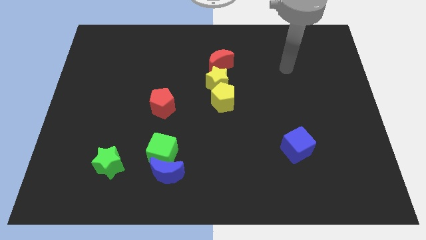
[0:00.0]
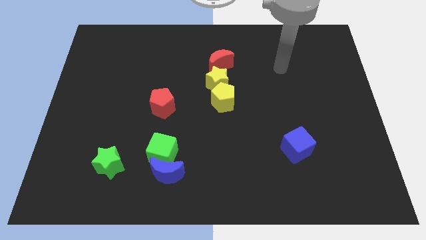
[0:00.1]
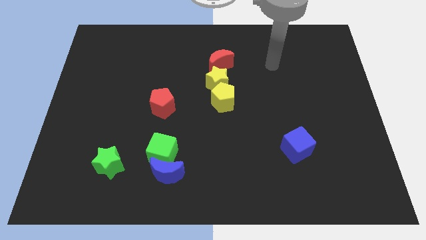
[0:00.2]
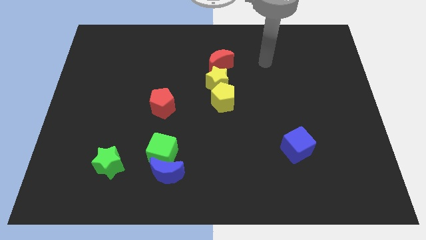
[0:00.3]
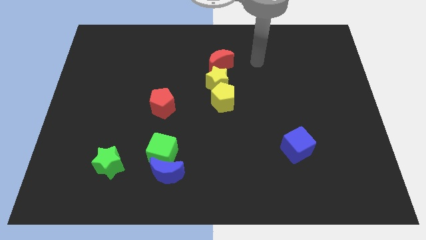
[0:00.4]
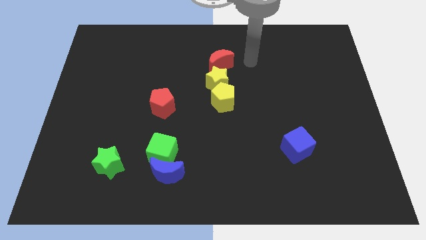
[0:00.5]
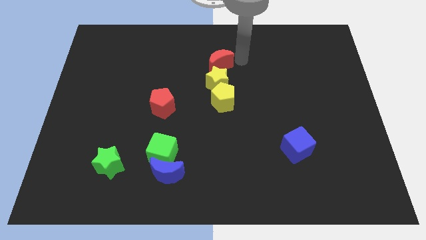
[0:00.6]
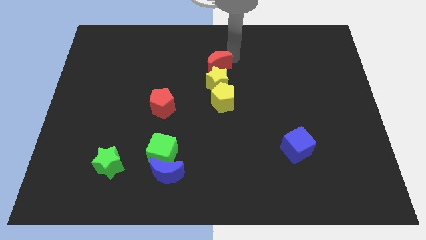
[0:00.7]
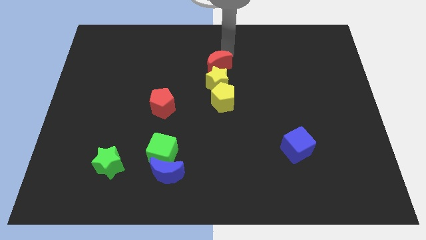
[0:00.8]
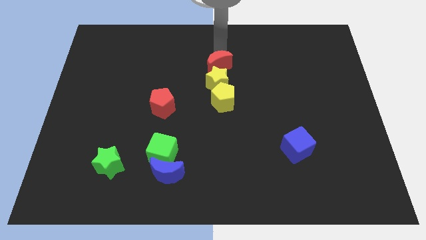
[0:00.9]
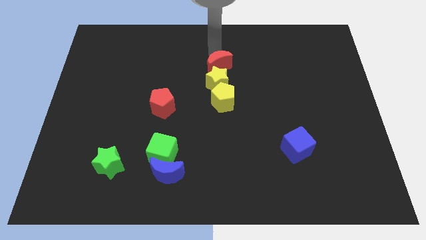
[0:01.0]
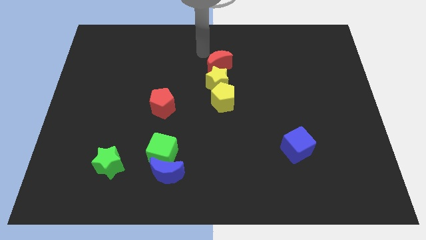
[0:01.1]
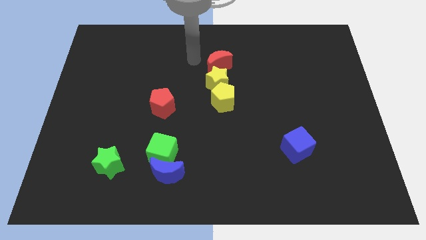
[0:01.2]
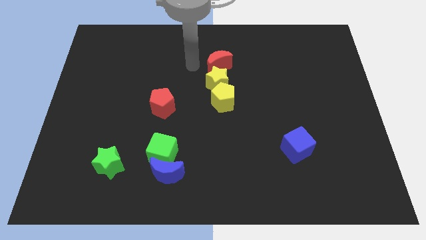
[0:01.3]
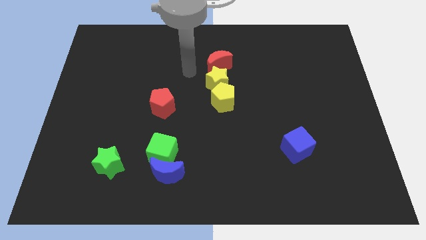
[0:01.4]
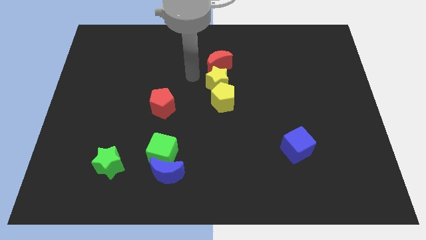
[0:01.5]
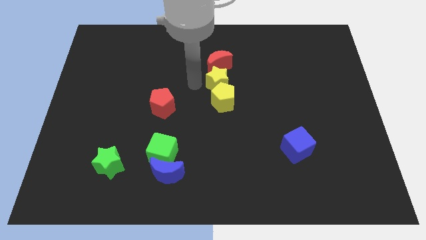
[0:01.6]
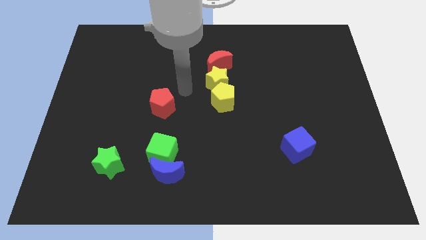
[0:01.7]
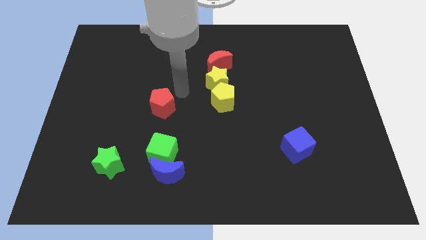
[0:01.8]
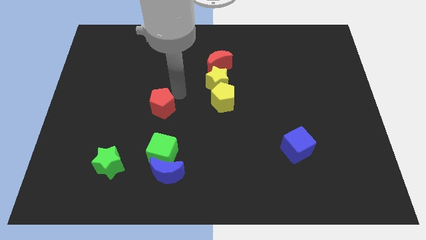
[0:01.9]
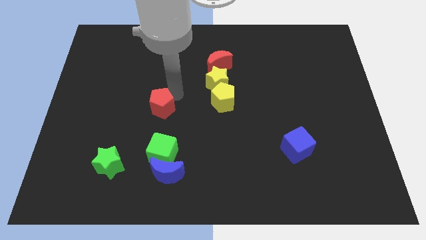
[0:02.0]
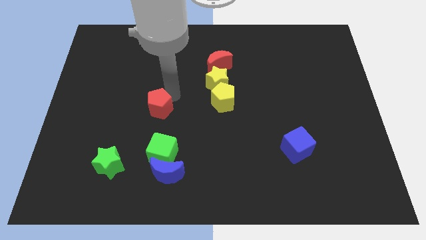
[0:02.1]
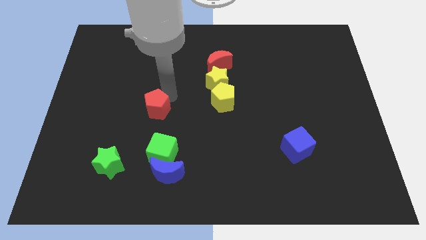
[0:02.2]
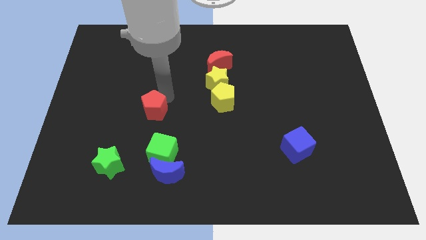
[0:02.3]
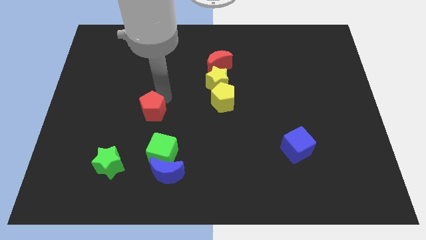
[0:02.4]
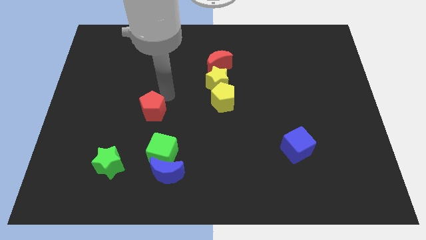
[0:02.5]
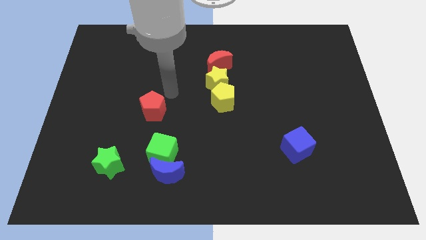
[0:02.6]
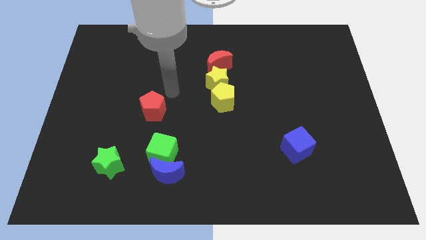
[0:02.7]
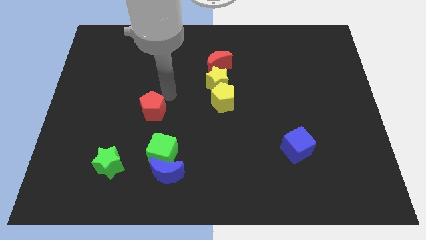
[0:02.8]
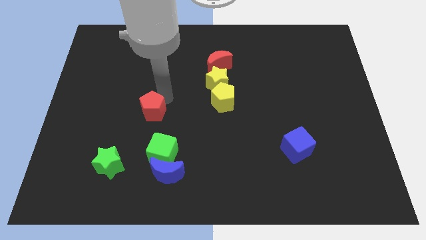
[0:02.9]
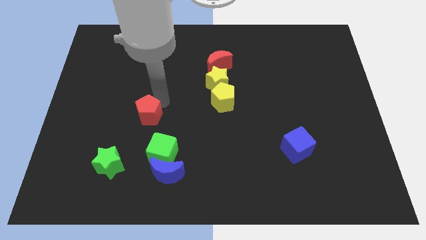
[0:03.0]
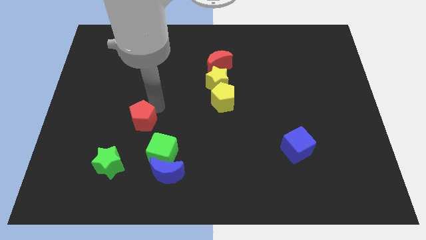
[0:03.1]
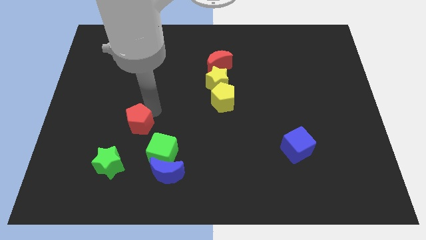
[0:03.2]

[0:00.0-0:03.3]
slightly slide the red pentagon down and then to the left

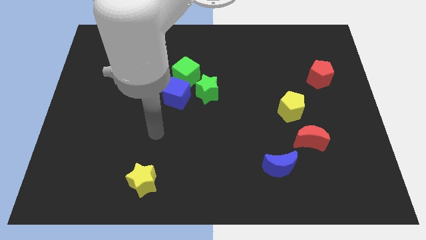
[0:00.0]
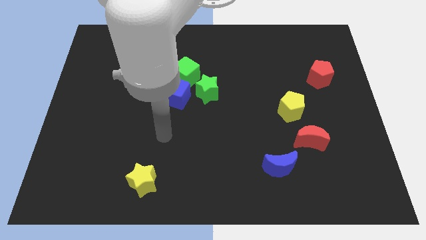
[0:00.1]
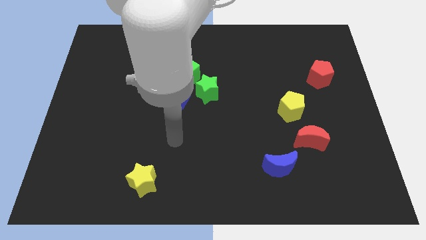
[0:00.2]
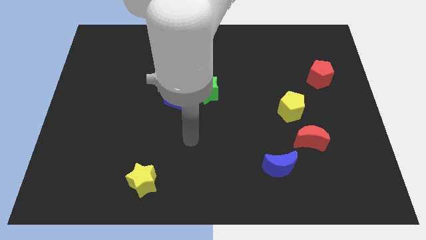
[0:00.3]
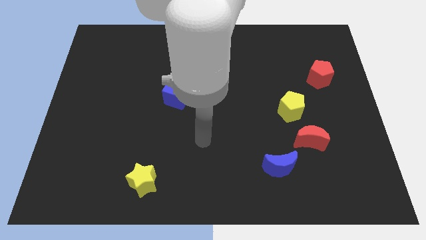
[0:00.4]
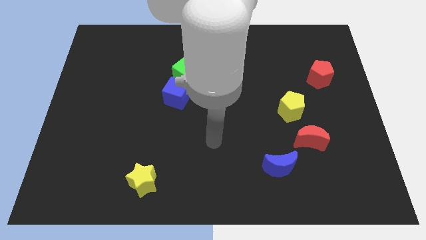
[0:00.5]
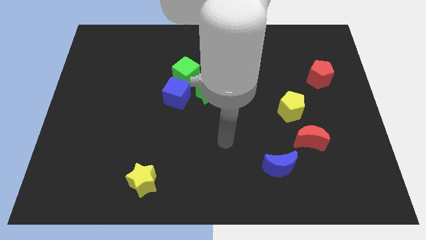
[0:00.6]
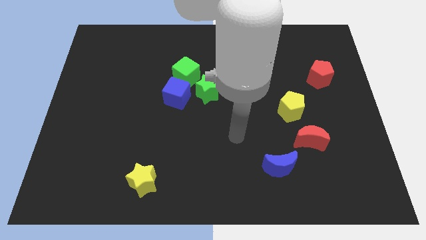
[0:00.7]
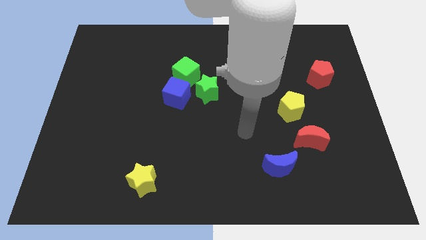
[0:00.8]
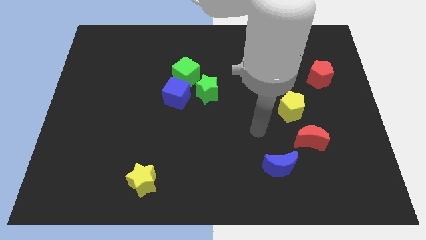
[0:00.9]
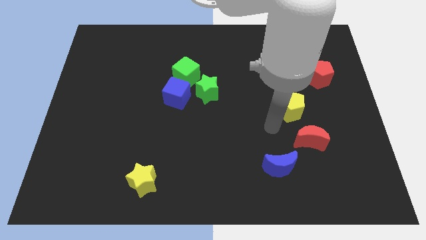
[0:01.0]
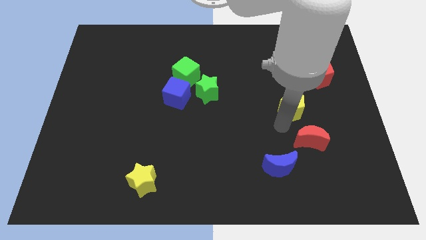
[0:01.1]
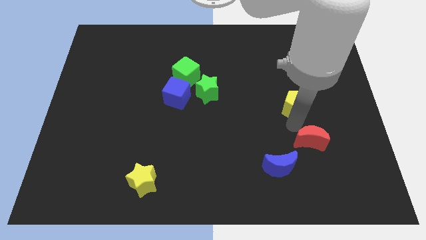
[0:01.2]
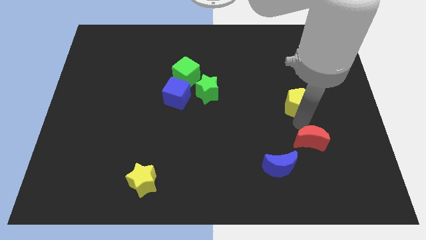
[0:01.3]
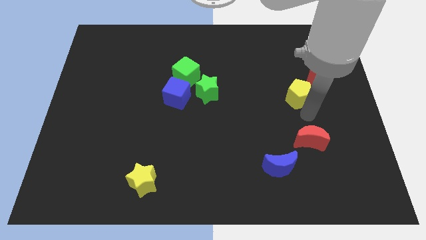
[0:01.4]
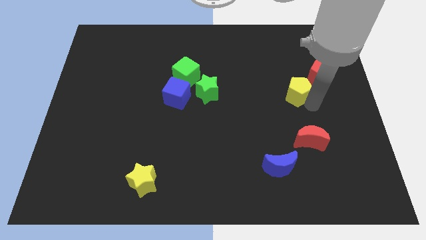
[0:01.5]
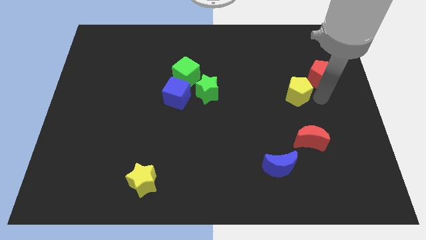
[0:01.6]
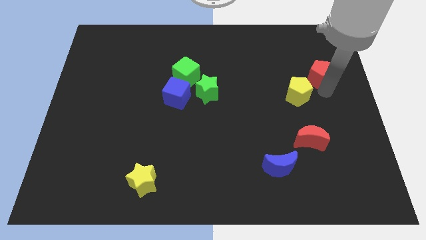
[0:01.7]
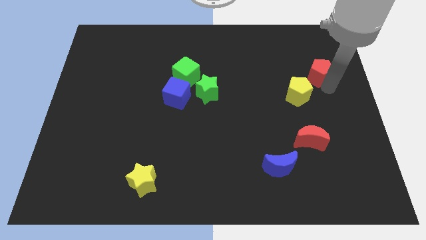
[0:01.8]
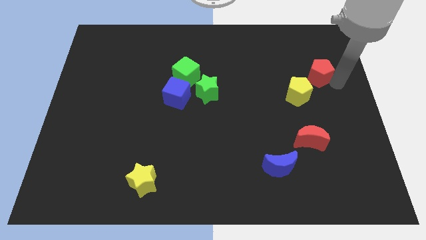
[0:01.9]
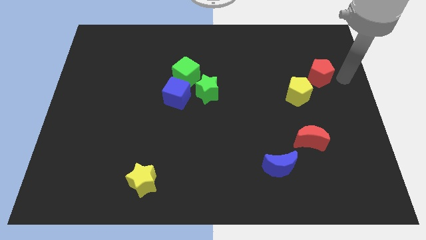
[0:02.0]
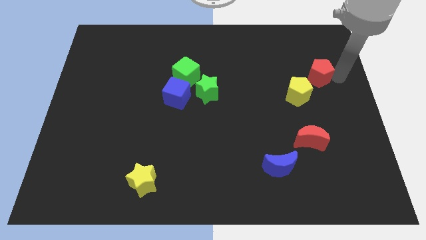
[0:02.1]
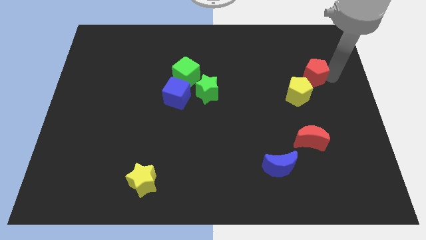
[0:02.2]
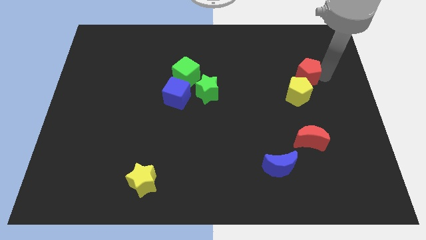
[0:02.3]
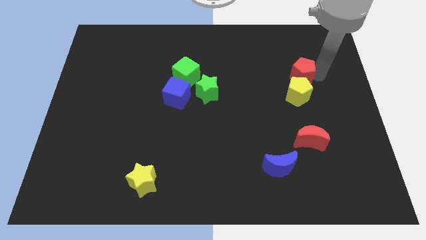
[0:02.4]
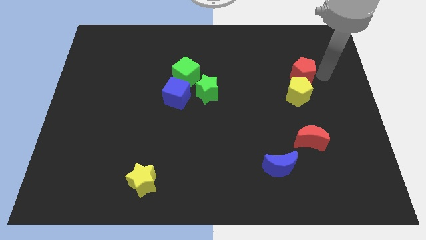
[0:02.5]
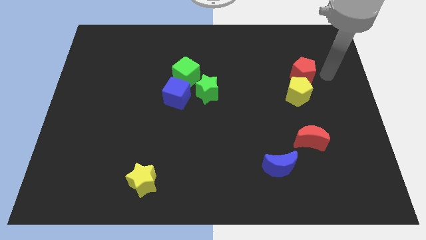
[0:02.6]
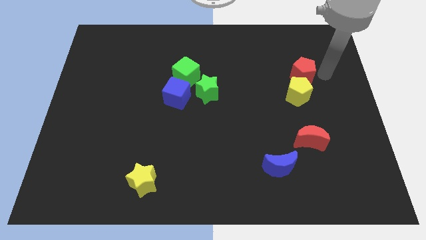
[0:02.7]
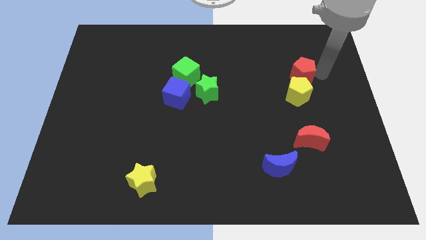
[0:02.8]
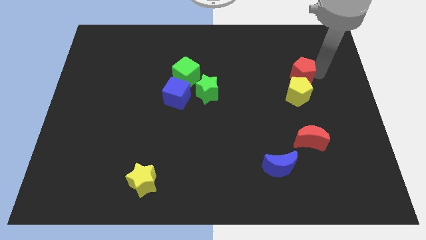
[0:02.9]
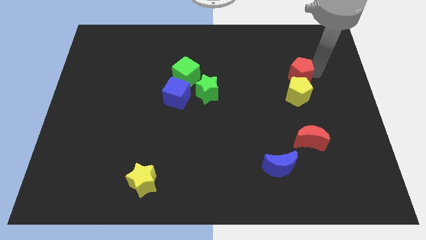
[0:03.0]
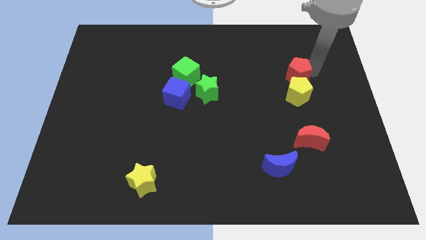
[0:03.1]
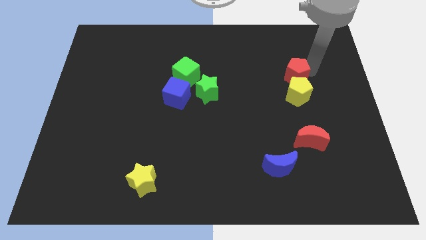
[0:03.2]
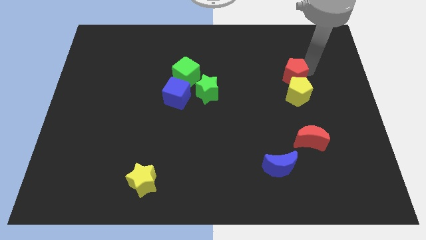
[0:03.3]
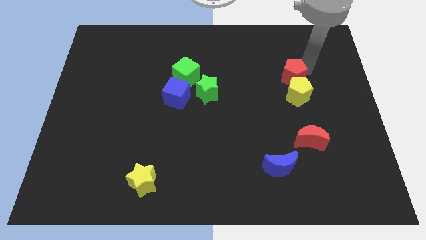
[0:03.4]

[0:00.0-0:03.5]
slightly slide the red pentagon to the left

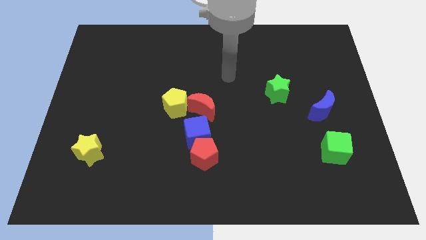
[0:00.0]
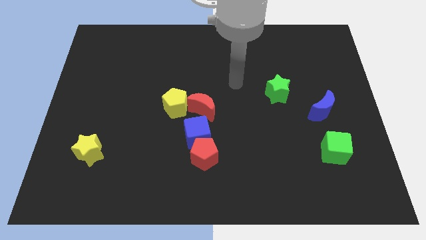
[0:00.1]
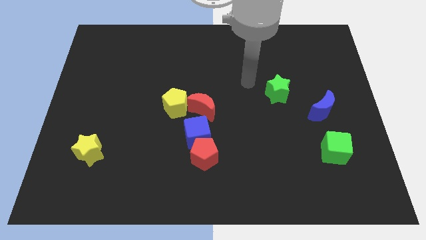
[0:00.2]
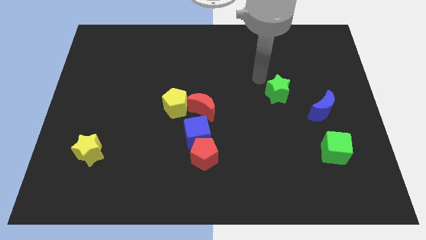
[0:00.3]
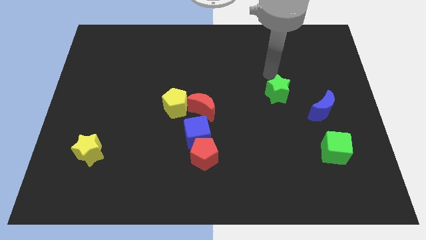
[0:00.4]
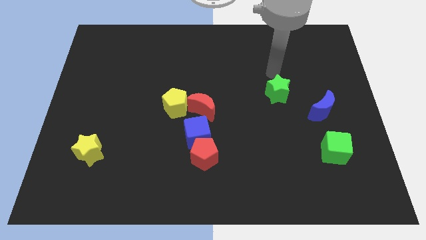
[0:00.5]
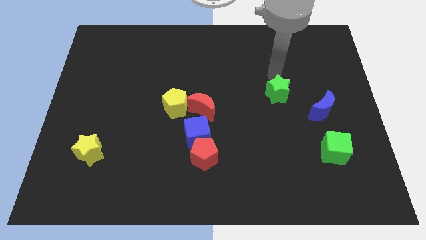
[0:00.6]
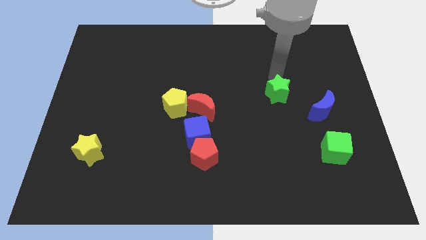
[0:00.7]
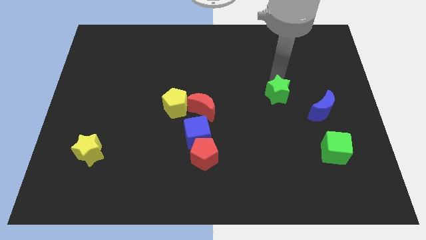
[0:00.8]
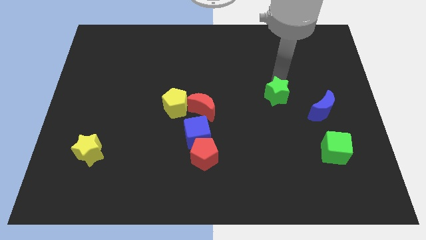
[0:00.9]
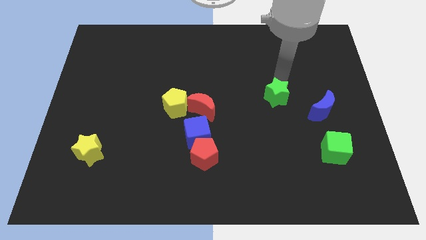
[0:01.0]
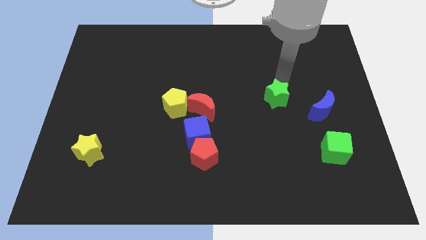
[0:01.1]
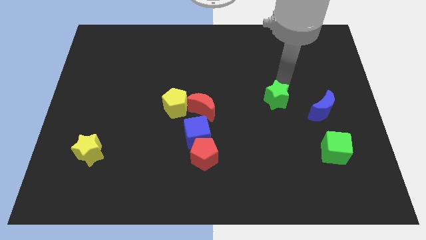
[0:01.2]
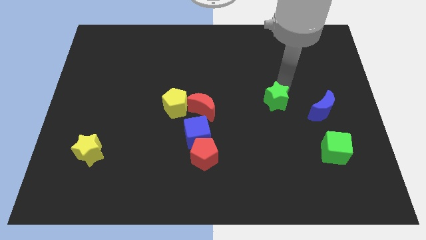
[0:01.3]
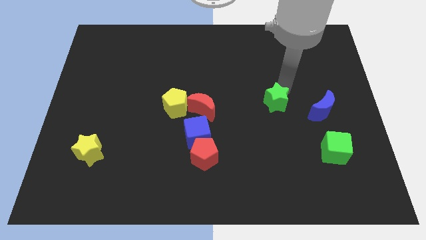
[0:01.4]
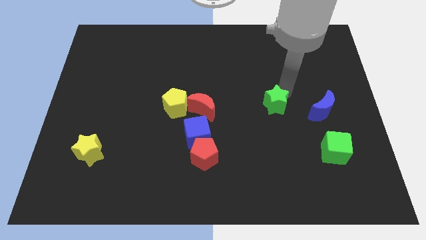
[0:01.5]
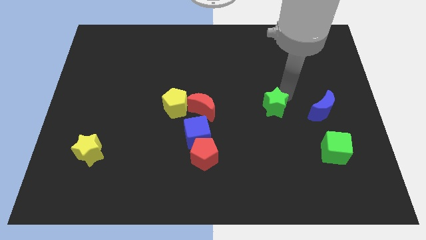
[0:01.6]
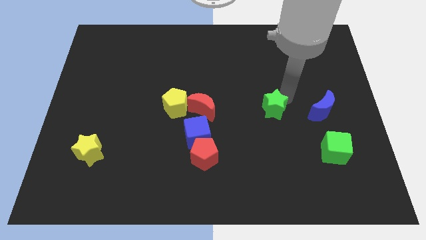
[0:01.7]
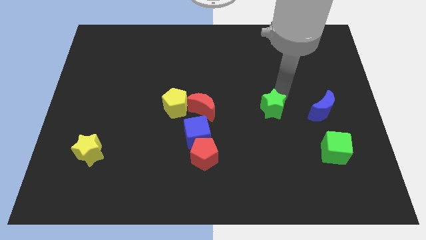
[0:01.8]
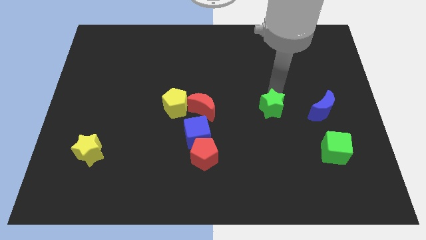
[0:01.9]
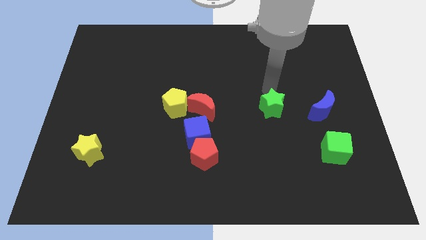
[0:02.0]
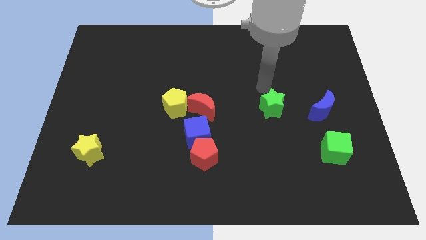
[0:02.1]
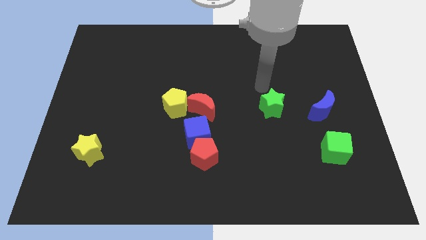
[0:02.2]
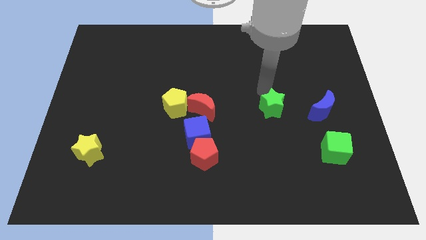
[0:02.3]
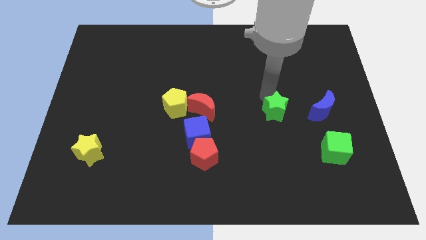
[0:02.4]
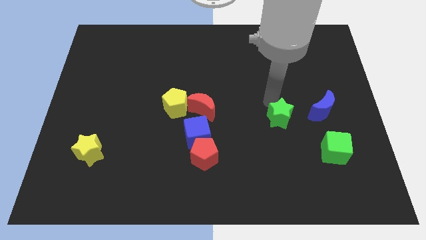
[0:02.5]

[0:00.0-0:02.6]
slightly move the green star downwards
